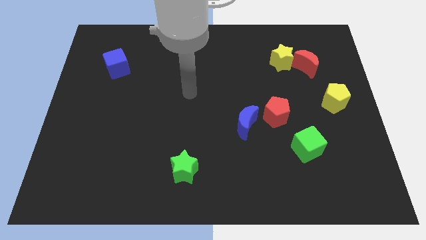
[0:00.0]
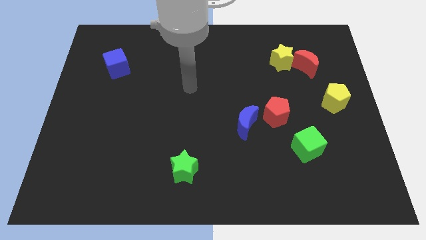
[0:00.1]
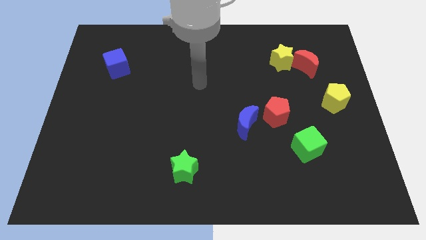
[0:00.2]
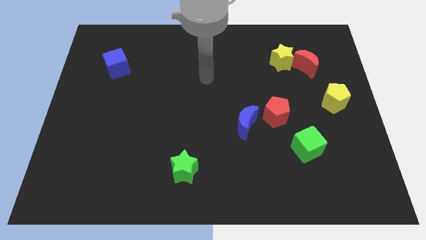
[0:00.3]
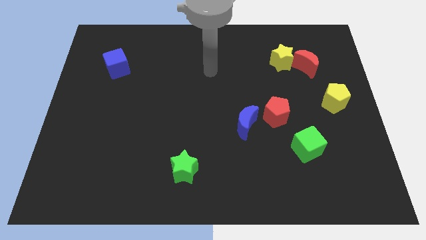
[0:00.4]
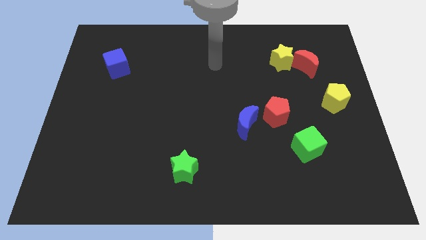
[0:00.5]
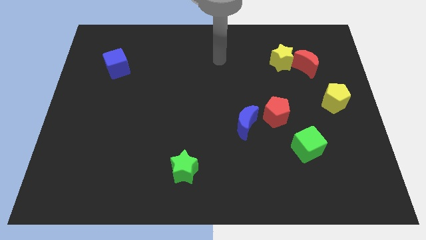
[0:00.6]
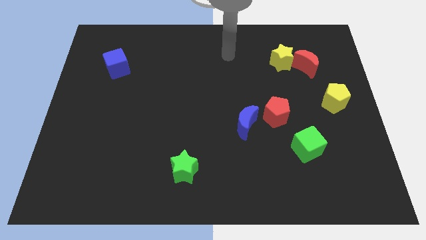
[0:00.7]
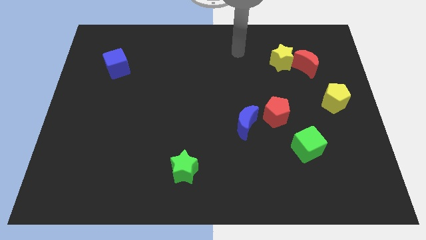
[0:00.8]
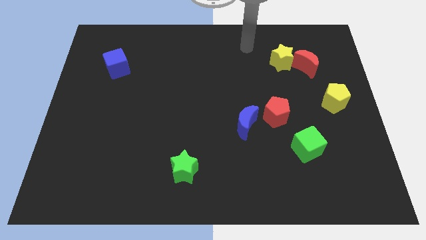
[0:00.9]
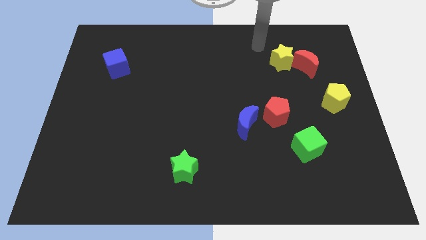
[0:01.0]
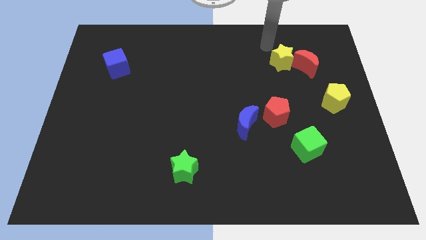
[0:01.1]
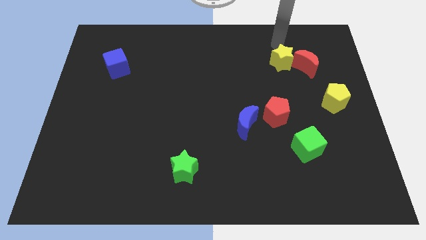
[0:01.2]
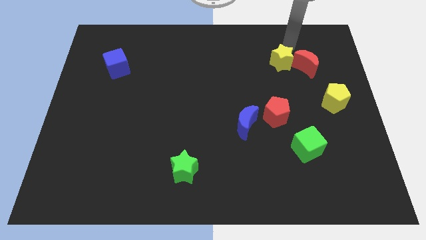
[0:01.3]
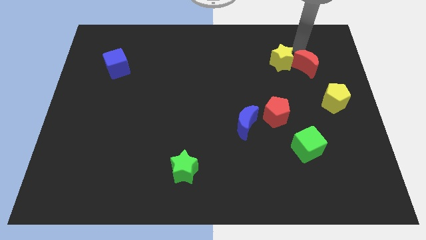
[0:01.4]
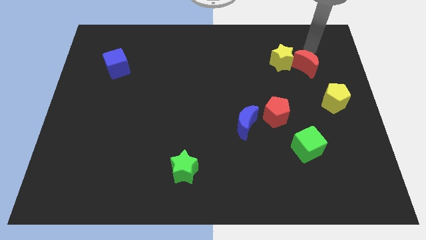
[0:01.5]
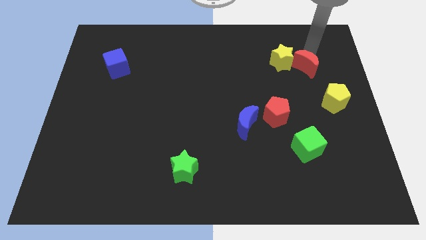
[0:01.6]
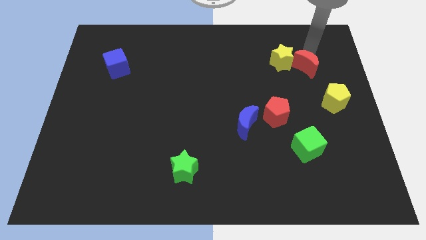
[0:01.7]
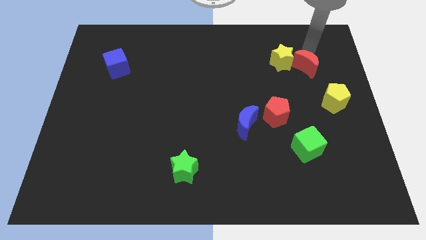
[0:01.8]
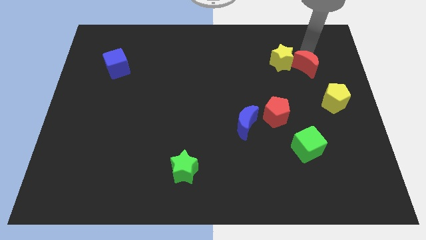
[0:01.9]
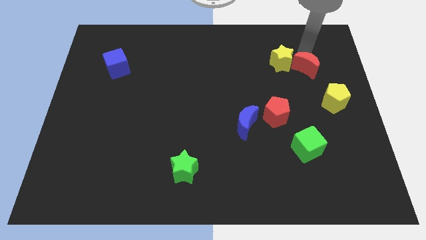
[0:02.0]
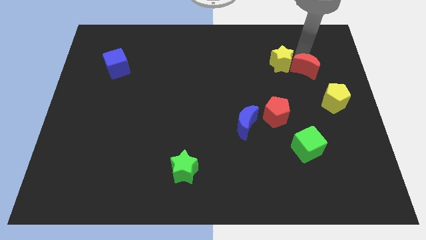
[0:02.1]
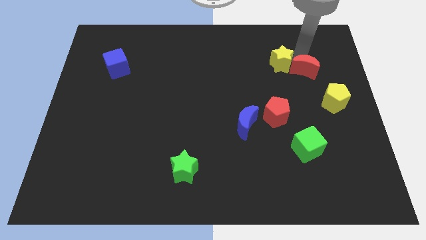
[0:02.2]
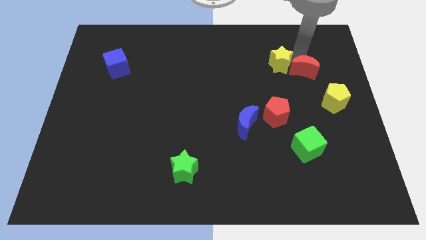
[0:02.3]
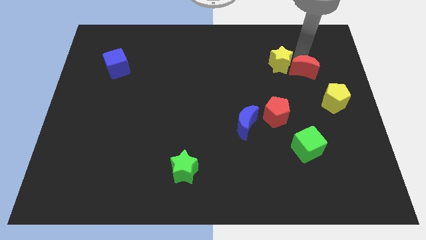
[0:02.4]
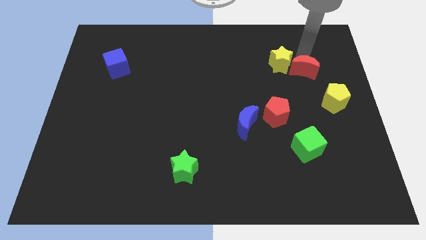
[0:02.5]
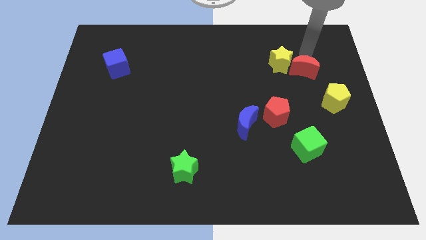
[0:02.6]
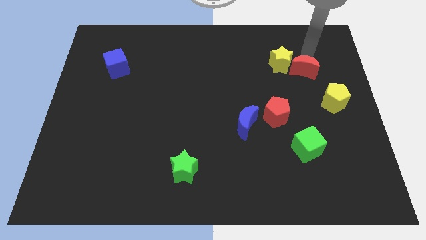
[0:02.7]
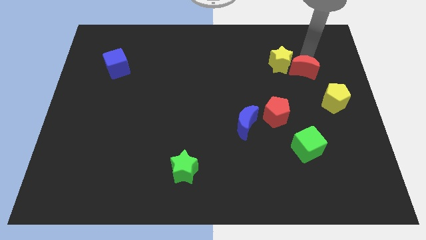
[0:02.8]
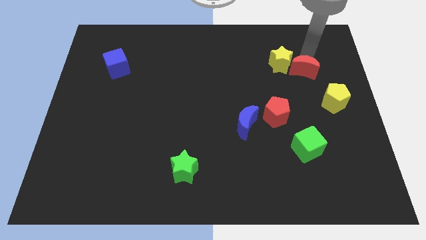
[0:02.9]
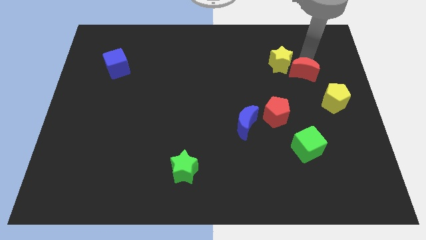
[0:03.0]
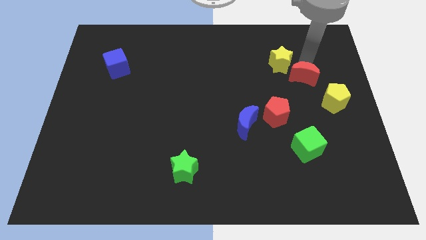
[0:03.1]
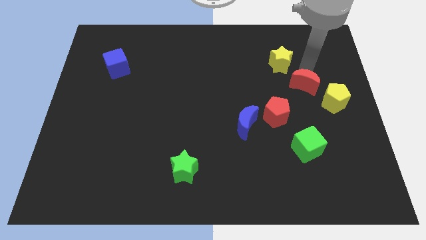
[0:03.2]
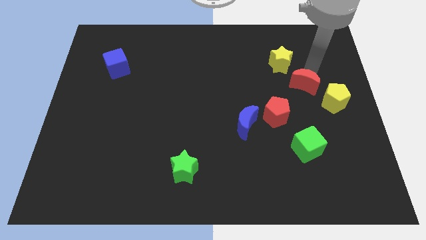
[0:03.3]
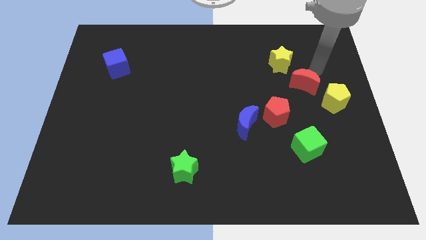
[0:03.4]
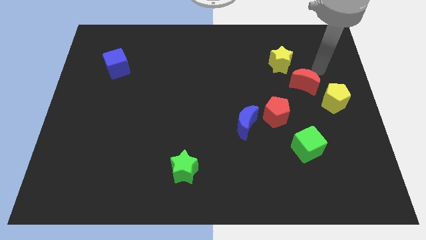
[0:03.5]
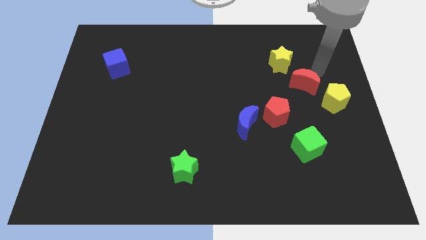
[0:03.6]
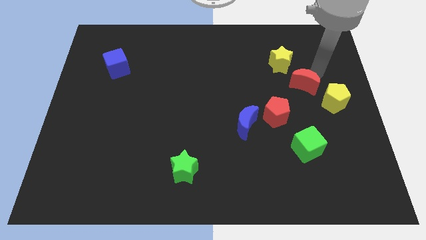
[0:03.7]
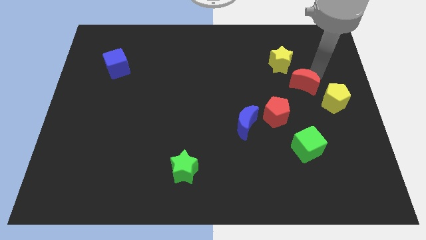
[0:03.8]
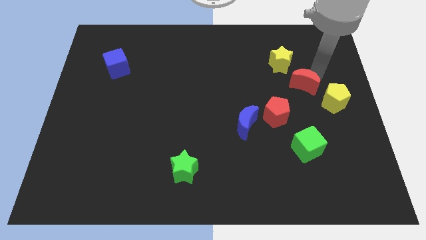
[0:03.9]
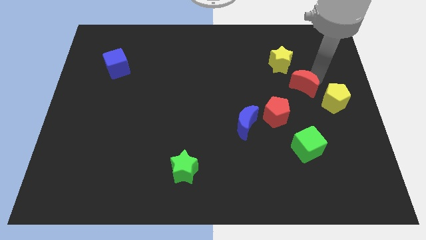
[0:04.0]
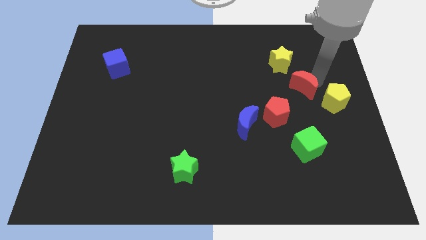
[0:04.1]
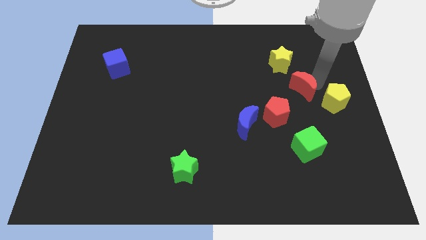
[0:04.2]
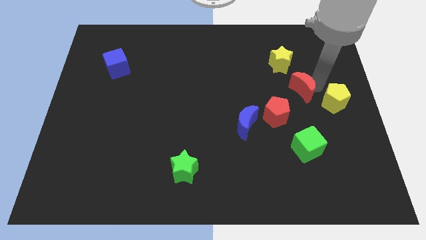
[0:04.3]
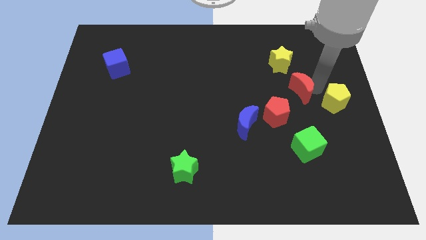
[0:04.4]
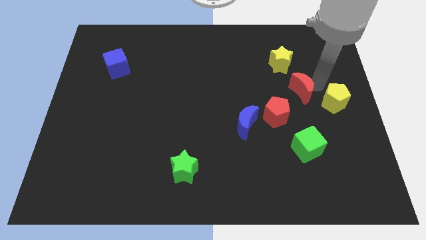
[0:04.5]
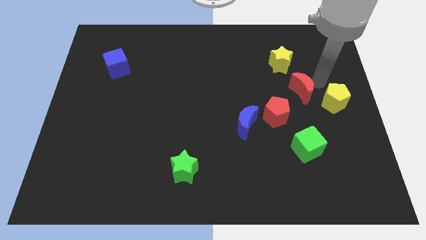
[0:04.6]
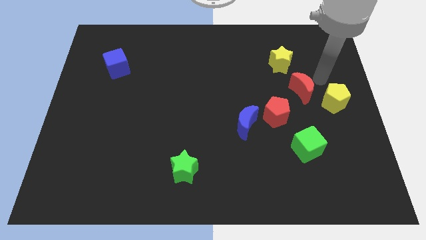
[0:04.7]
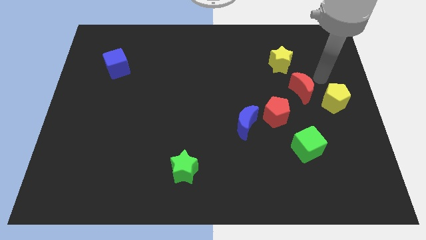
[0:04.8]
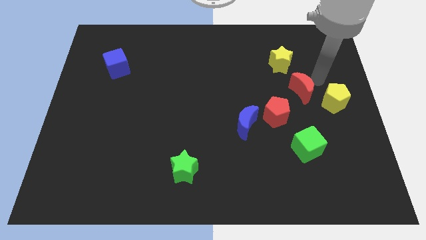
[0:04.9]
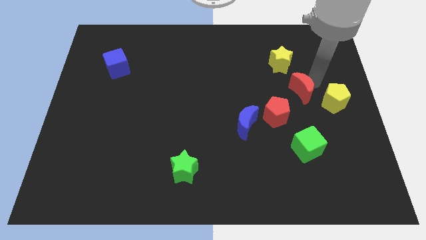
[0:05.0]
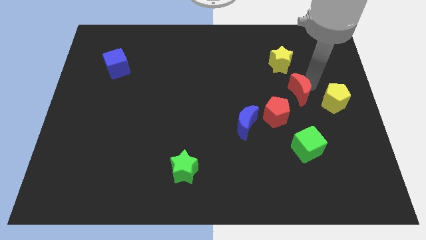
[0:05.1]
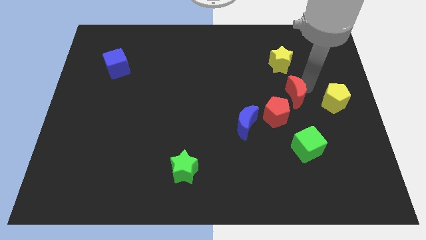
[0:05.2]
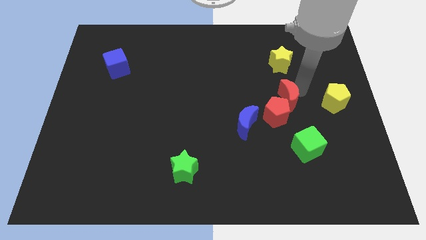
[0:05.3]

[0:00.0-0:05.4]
push the red moon next to the red pentagon

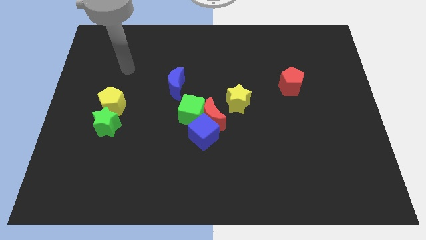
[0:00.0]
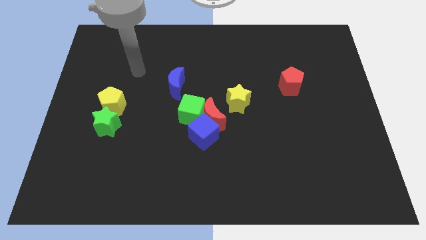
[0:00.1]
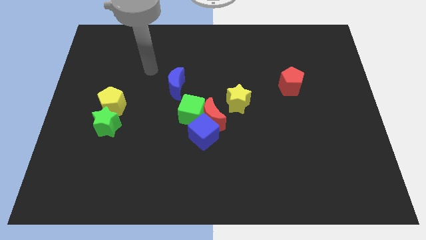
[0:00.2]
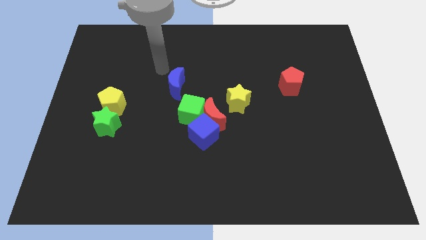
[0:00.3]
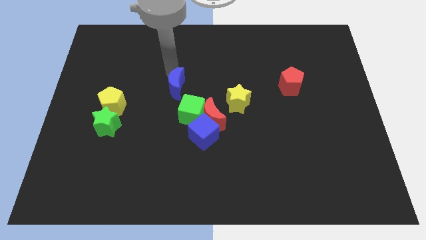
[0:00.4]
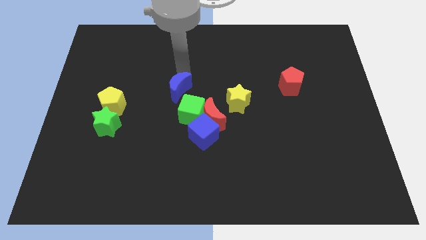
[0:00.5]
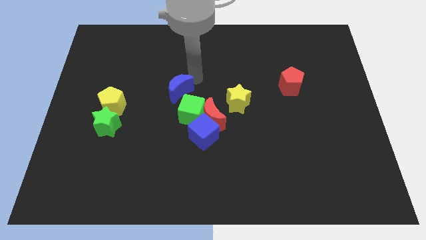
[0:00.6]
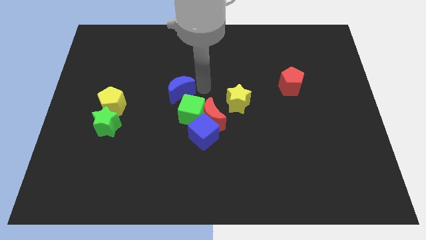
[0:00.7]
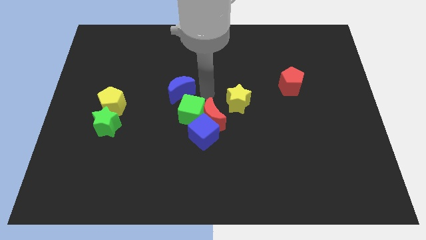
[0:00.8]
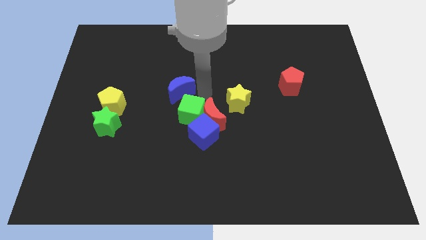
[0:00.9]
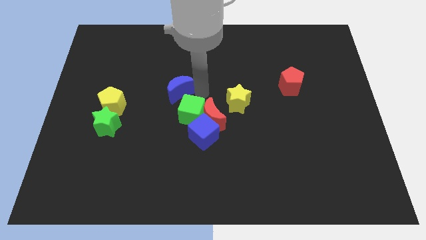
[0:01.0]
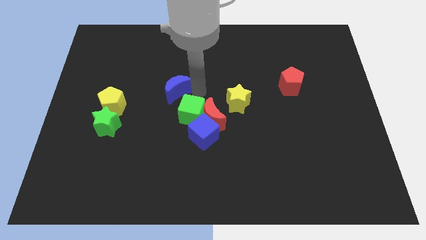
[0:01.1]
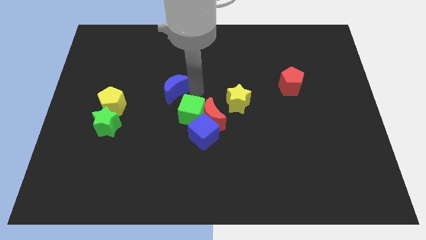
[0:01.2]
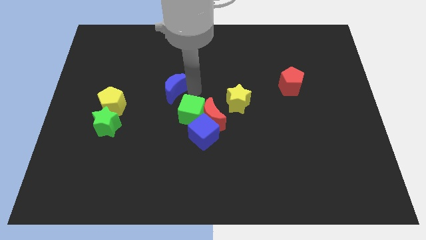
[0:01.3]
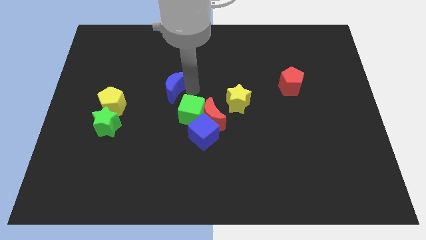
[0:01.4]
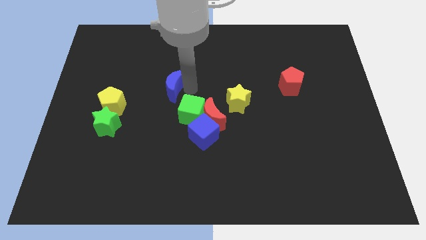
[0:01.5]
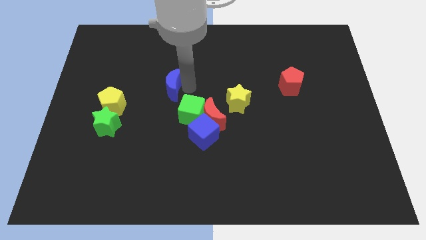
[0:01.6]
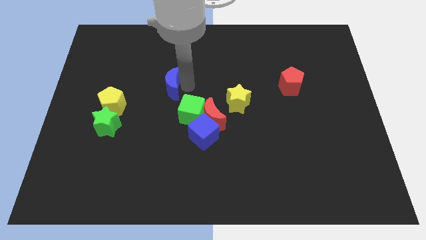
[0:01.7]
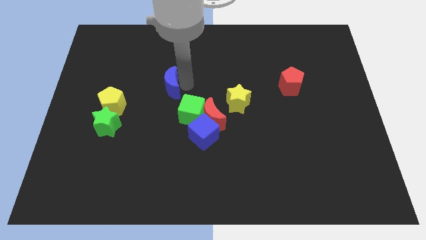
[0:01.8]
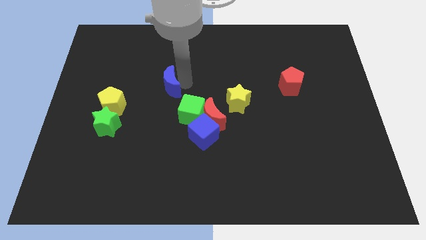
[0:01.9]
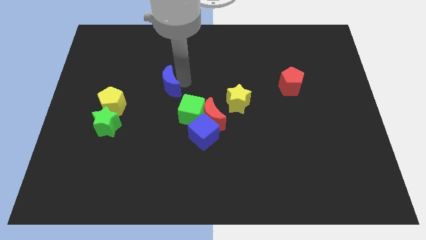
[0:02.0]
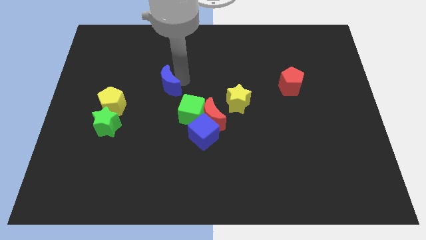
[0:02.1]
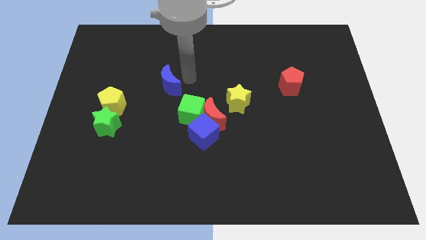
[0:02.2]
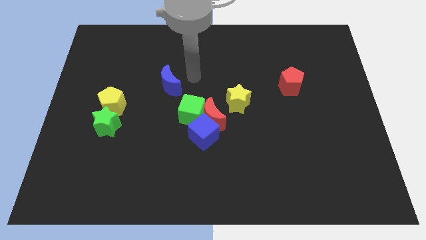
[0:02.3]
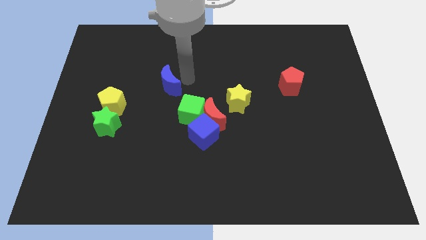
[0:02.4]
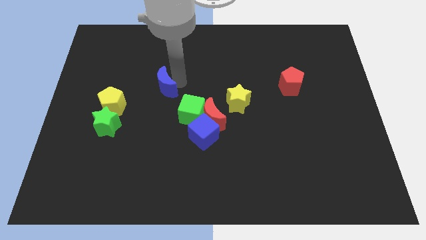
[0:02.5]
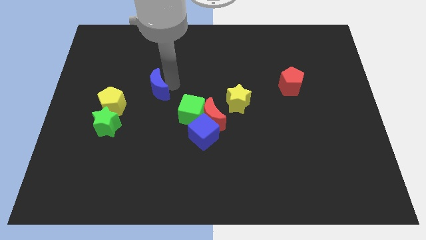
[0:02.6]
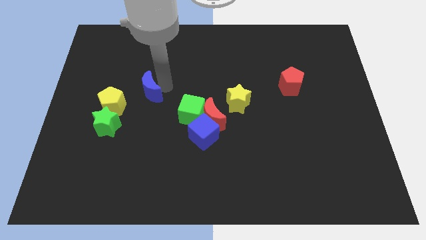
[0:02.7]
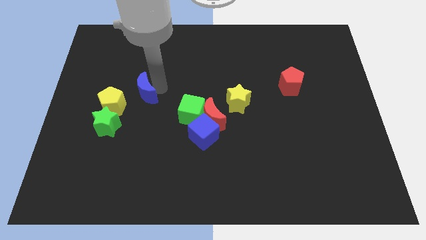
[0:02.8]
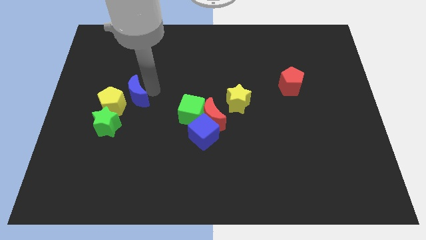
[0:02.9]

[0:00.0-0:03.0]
put the blue moon close to the yellow pentagon
